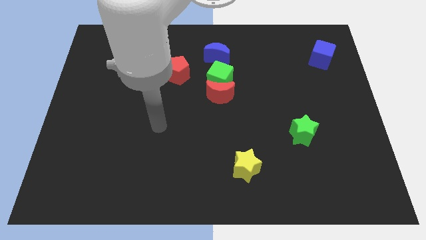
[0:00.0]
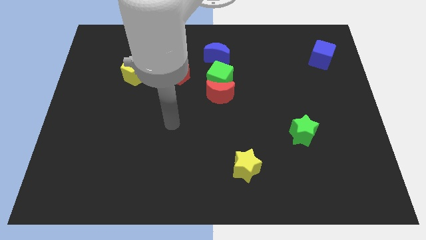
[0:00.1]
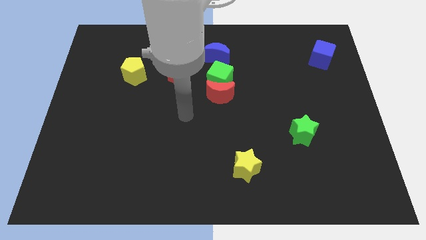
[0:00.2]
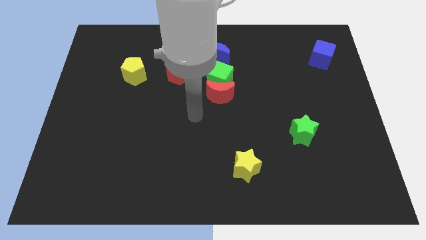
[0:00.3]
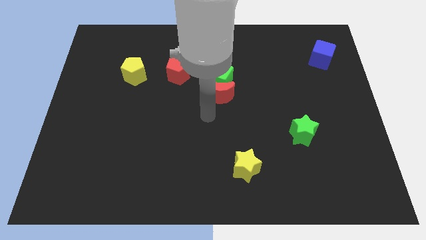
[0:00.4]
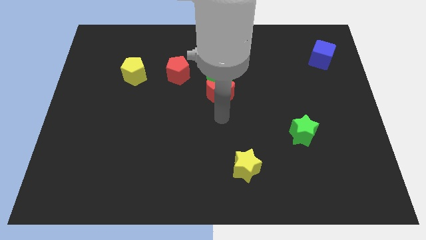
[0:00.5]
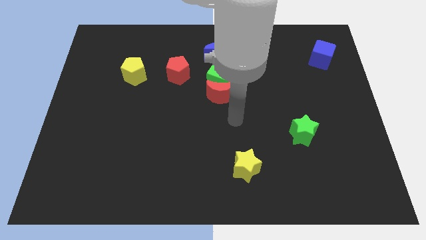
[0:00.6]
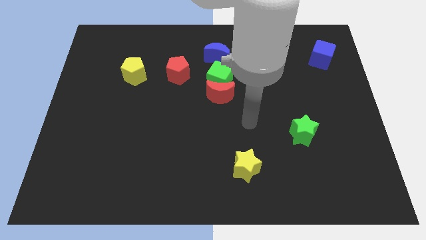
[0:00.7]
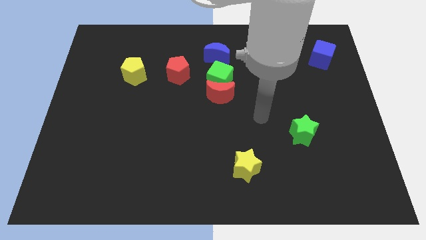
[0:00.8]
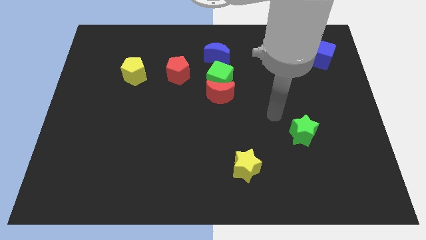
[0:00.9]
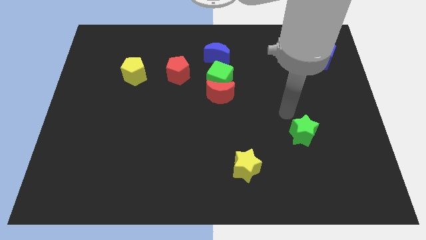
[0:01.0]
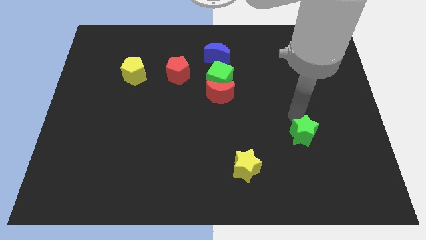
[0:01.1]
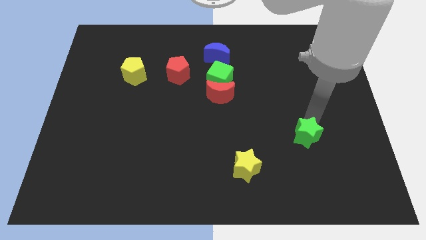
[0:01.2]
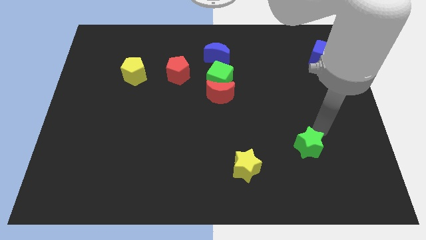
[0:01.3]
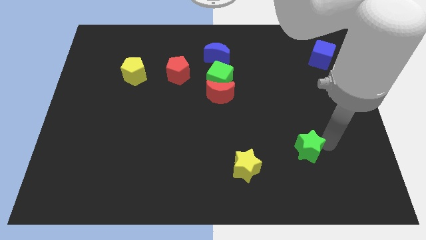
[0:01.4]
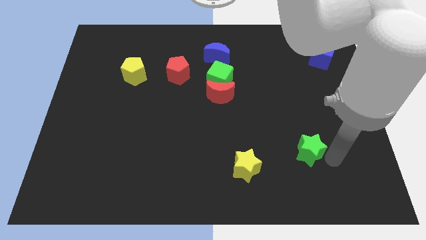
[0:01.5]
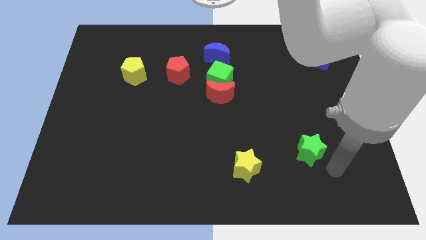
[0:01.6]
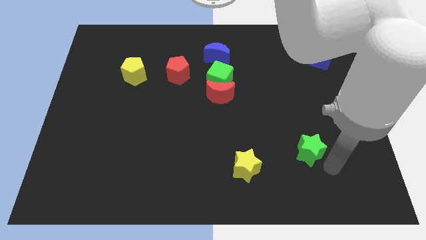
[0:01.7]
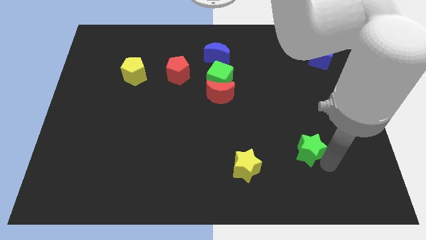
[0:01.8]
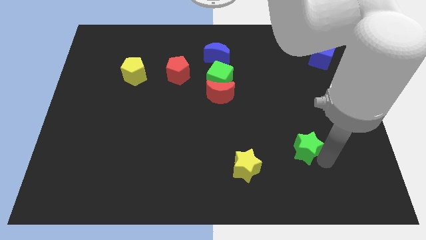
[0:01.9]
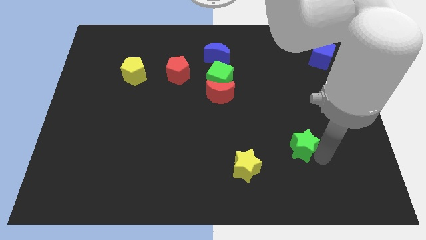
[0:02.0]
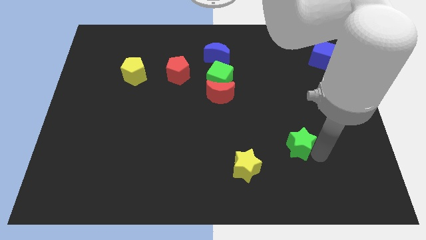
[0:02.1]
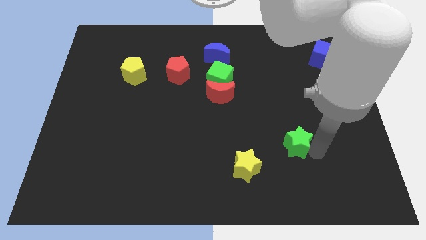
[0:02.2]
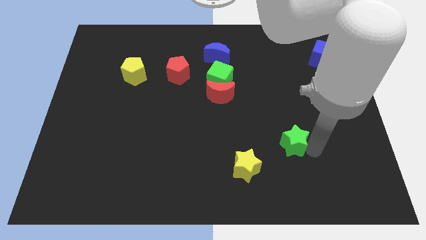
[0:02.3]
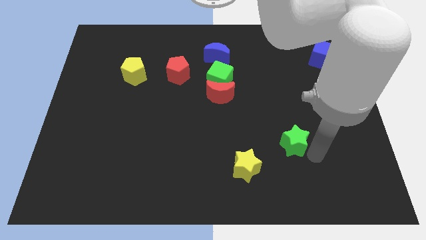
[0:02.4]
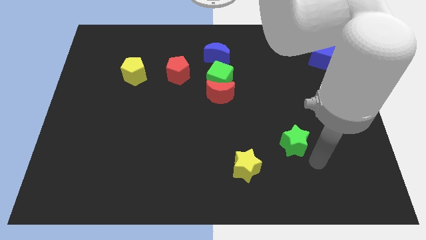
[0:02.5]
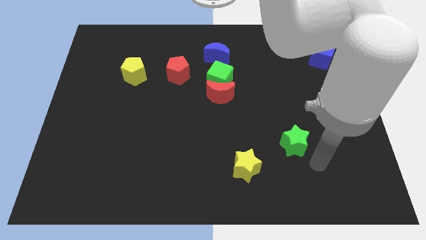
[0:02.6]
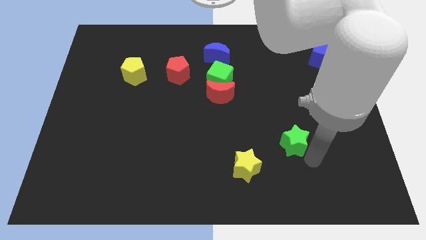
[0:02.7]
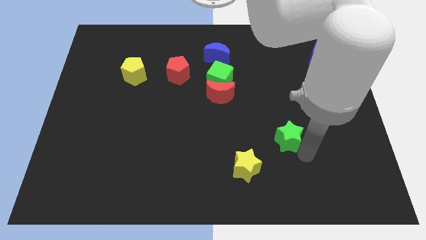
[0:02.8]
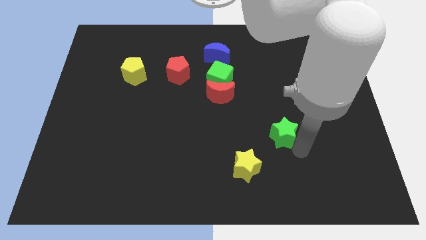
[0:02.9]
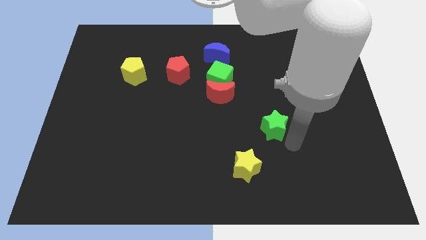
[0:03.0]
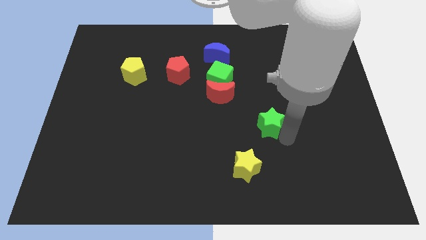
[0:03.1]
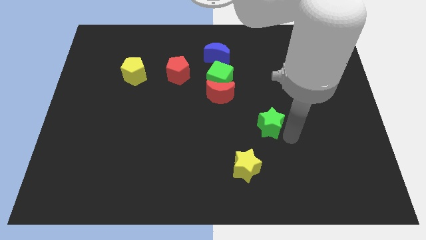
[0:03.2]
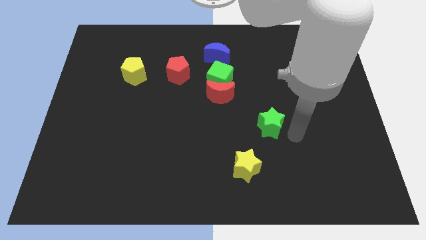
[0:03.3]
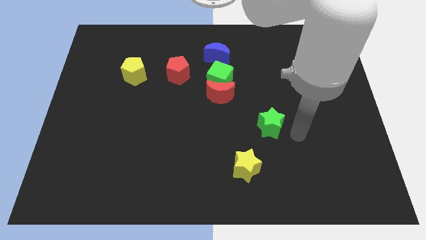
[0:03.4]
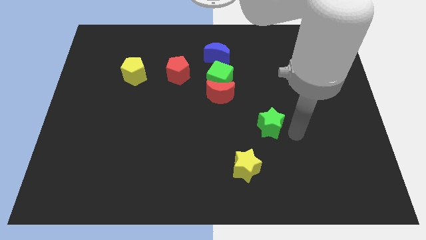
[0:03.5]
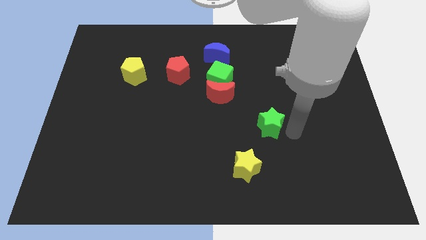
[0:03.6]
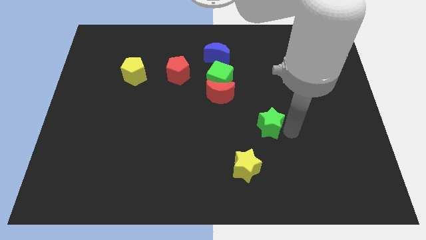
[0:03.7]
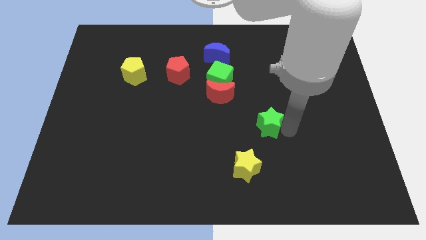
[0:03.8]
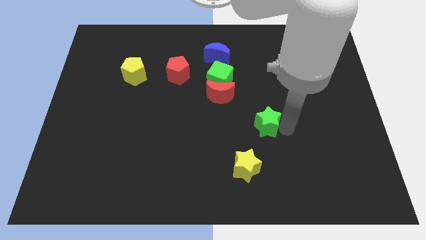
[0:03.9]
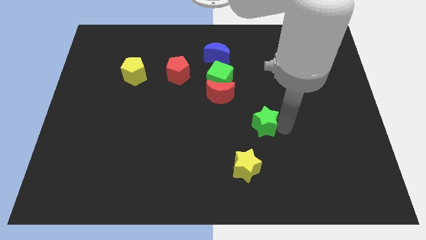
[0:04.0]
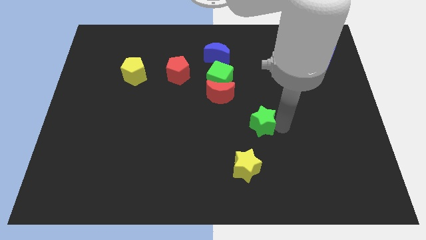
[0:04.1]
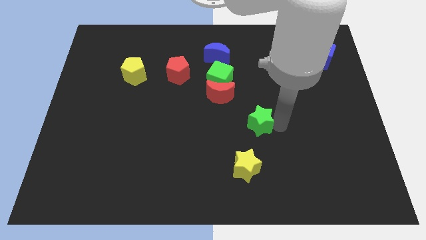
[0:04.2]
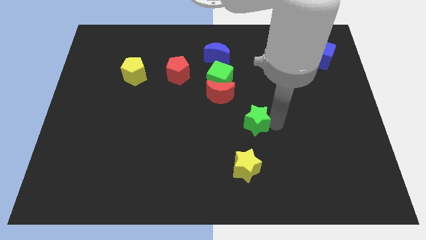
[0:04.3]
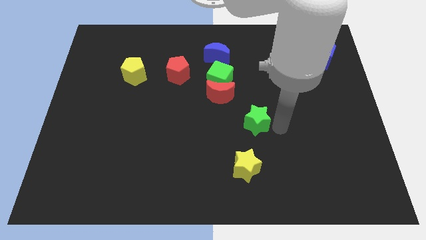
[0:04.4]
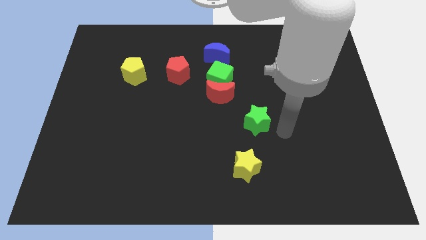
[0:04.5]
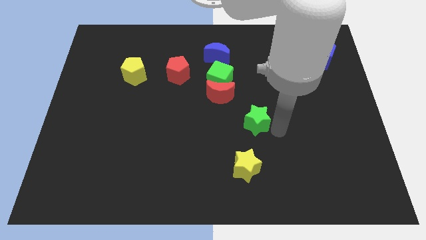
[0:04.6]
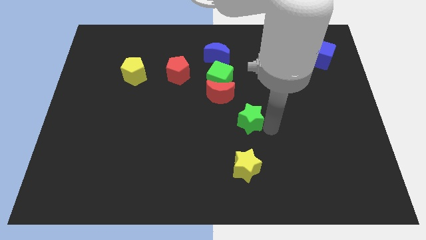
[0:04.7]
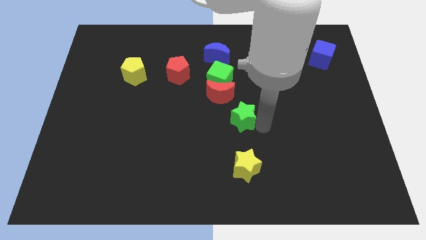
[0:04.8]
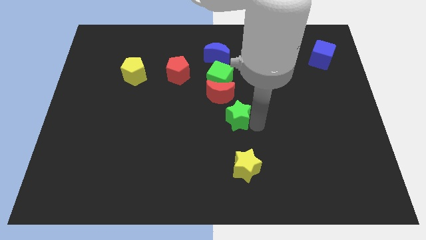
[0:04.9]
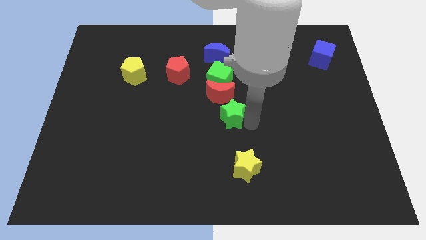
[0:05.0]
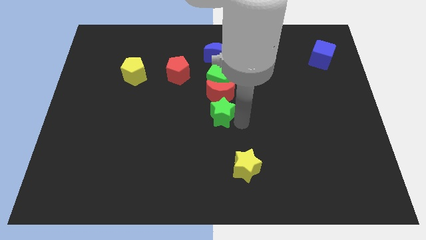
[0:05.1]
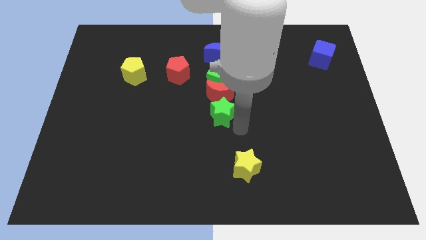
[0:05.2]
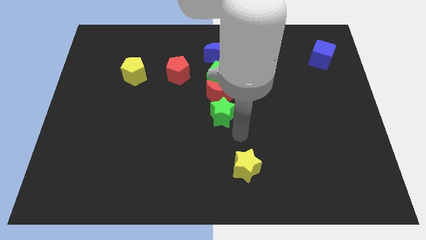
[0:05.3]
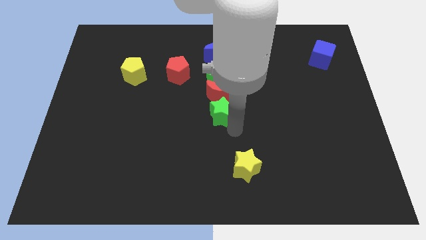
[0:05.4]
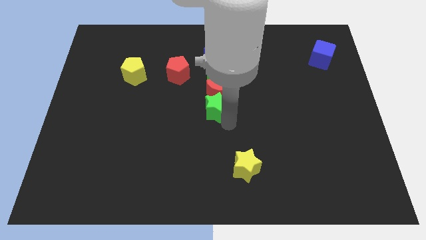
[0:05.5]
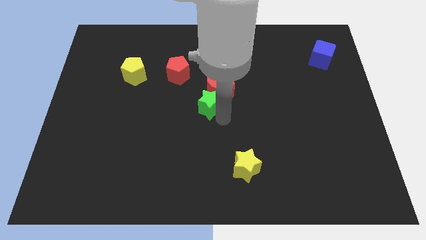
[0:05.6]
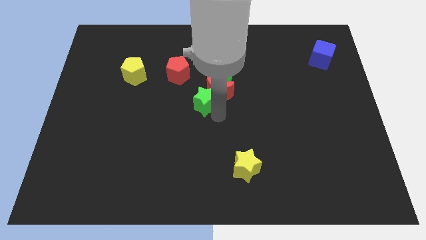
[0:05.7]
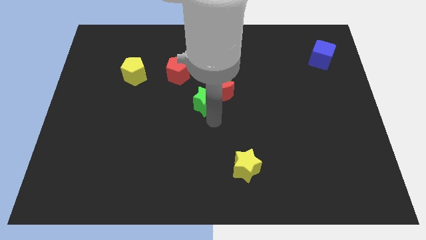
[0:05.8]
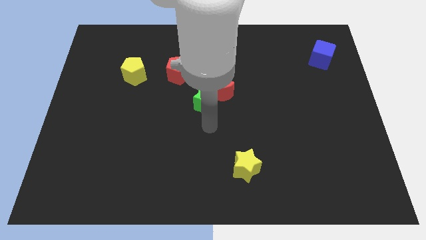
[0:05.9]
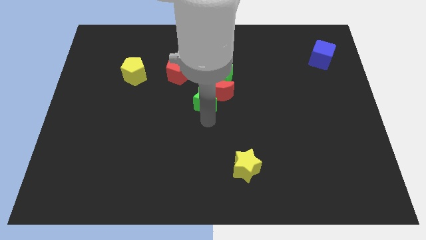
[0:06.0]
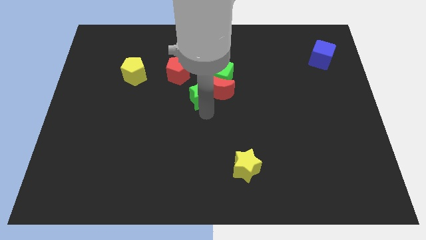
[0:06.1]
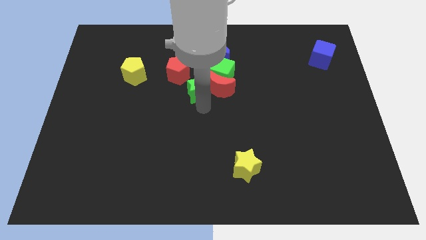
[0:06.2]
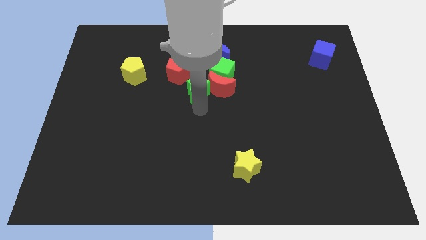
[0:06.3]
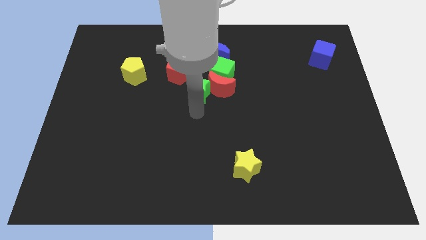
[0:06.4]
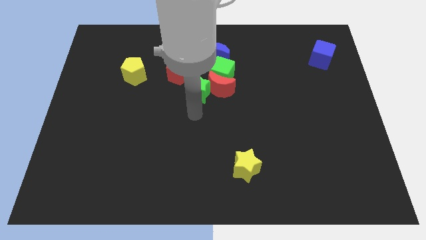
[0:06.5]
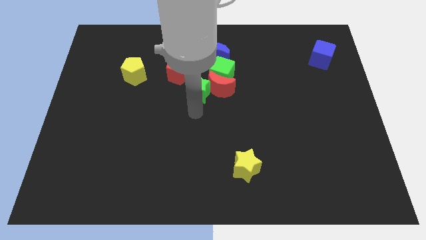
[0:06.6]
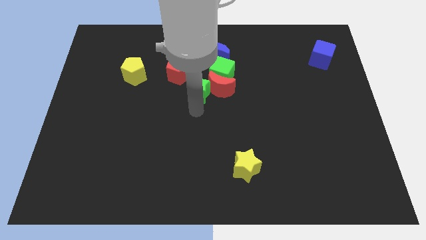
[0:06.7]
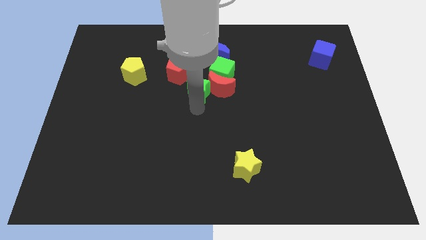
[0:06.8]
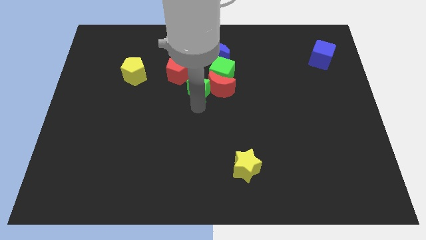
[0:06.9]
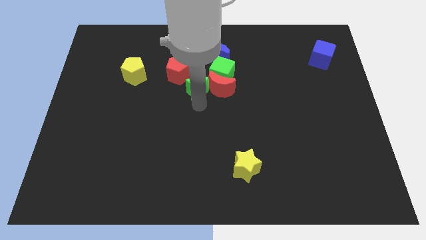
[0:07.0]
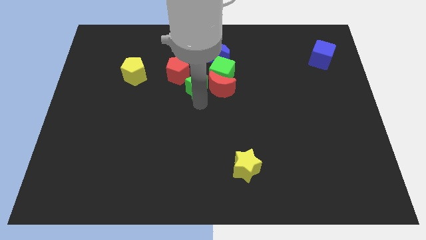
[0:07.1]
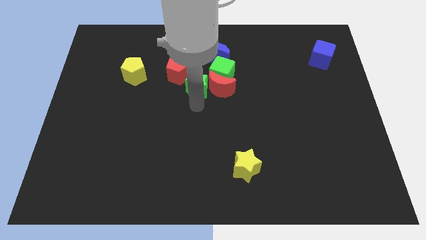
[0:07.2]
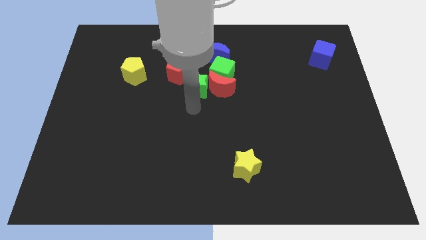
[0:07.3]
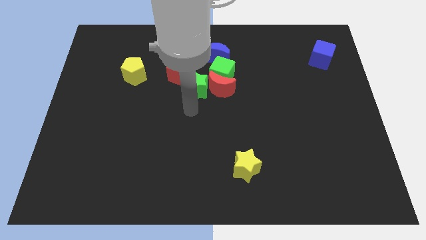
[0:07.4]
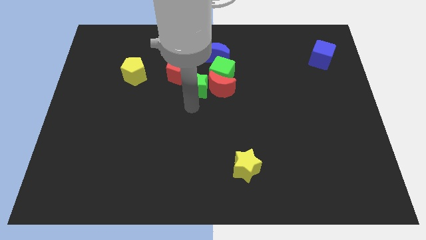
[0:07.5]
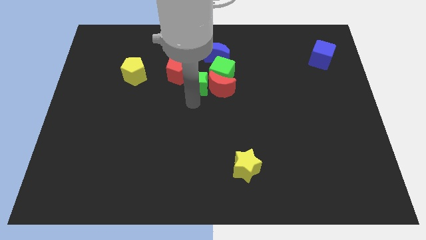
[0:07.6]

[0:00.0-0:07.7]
move the green star close to the red pentagon
